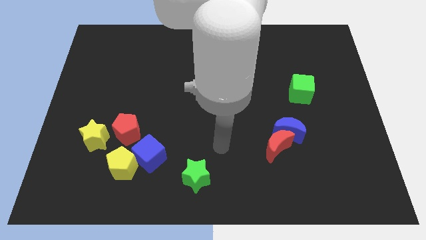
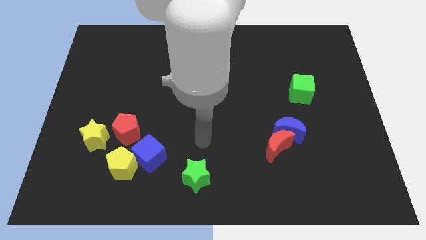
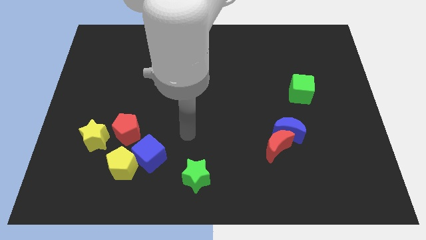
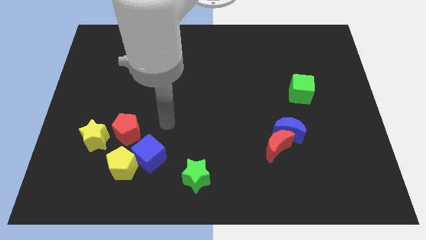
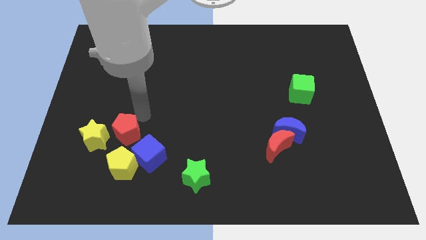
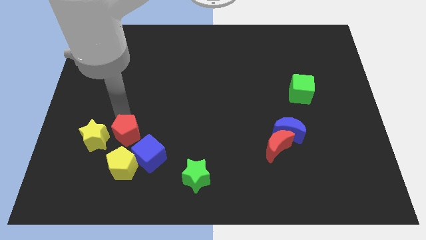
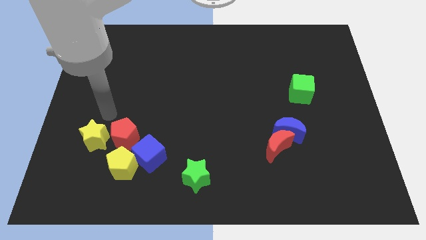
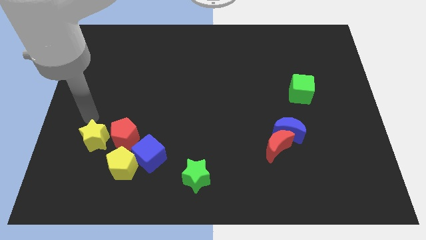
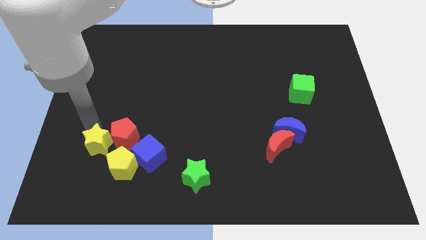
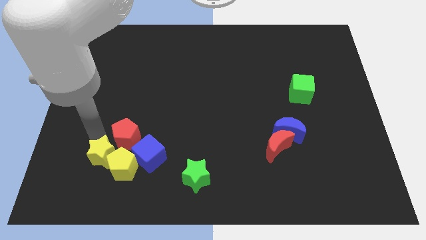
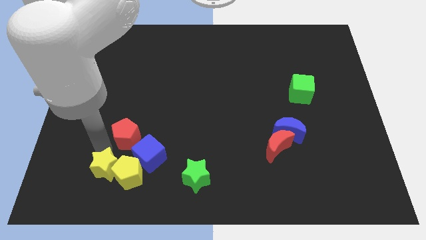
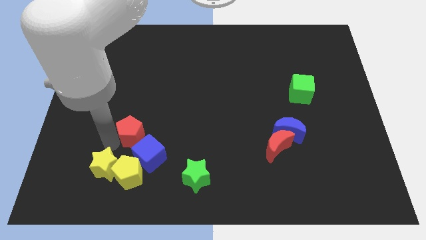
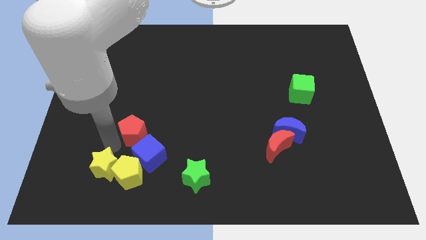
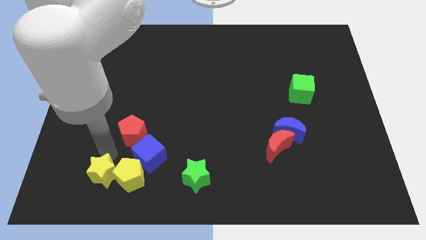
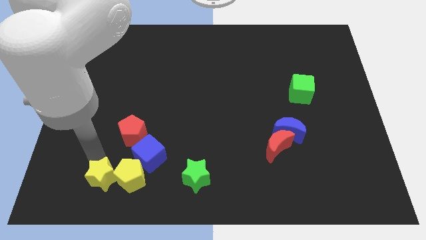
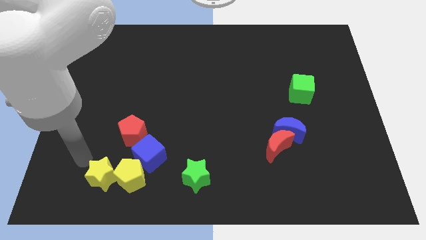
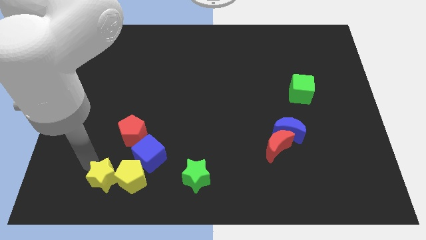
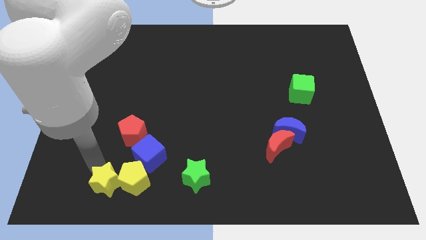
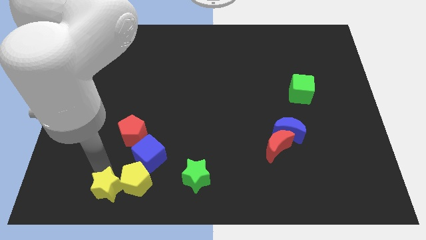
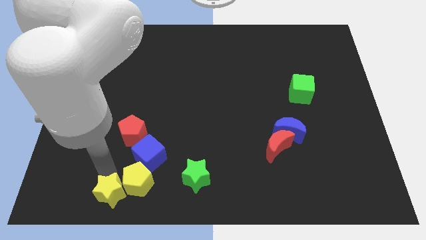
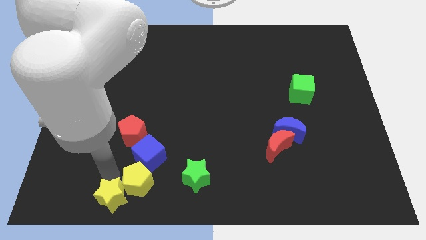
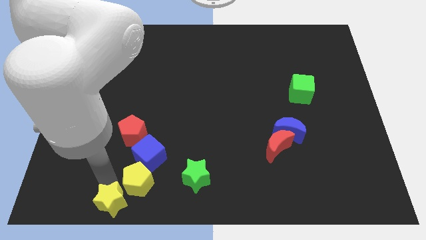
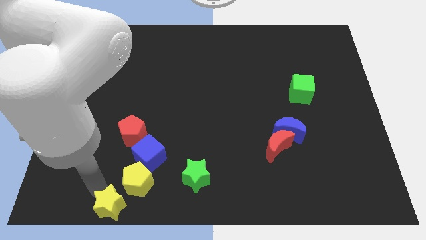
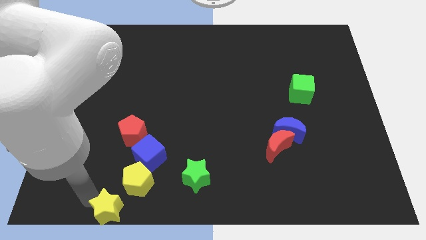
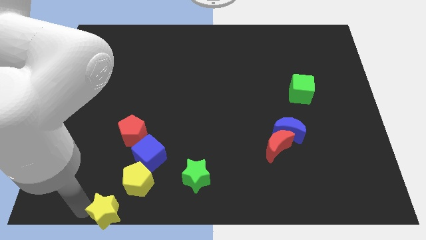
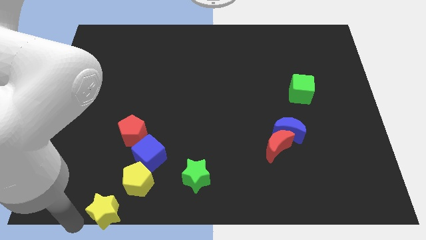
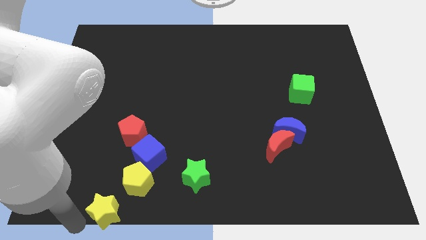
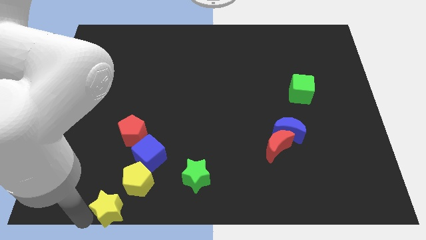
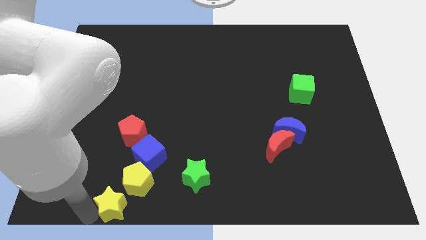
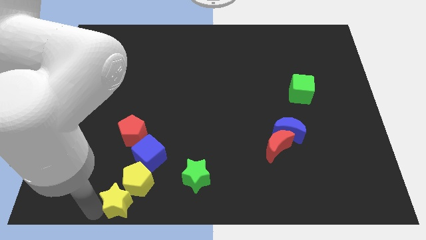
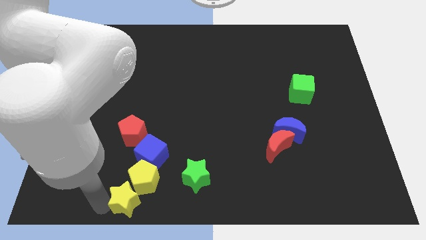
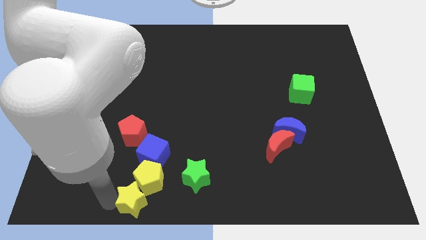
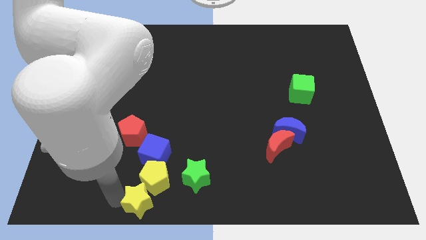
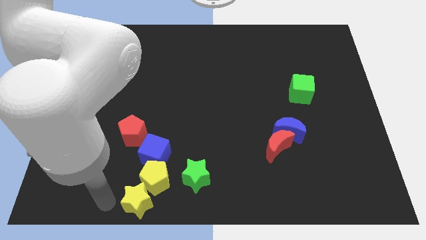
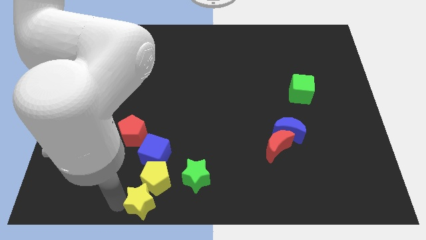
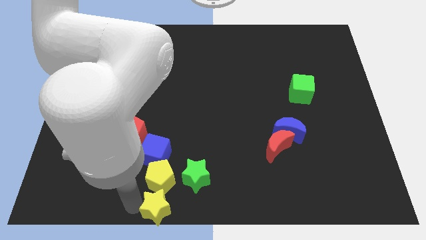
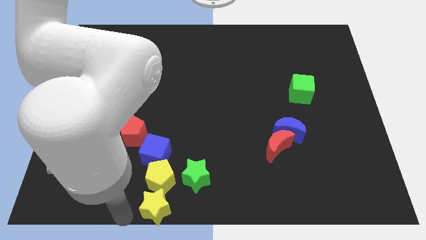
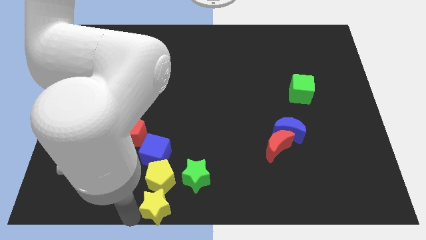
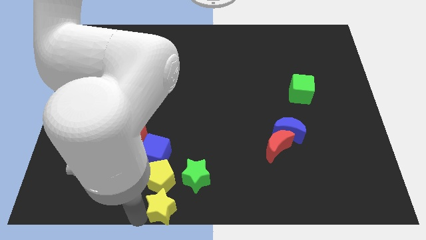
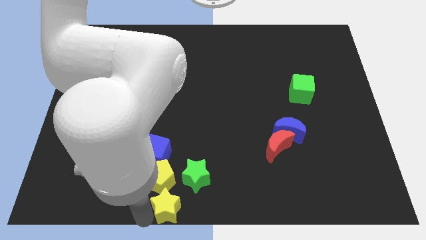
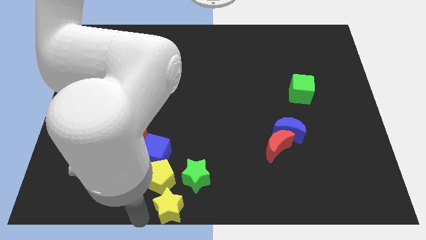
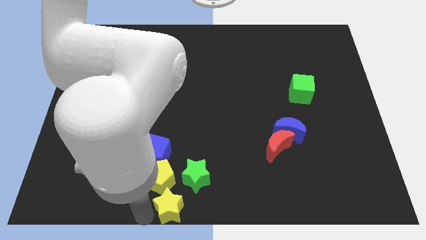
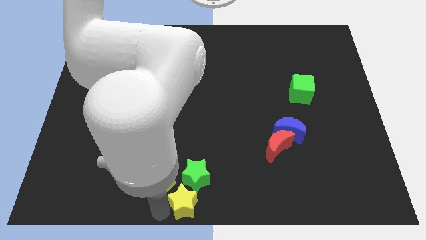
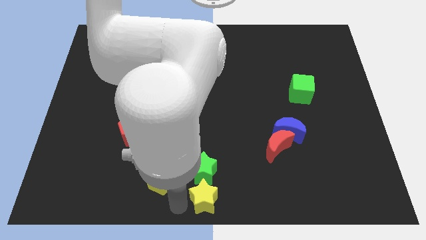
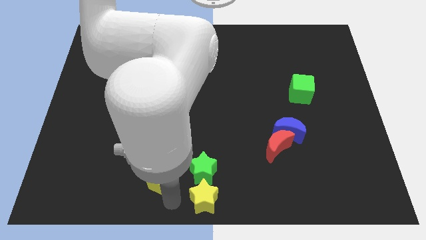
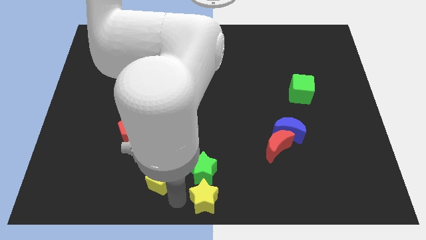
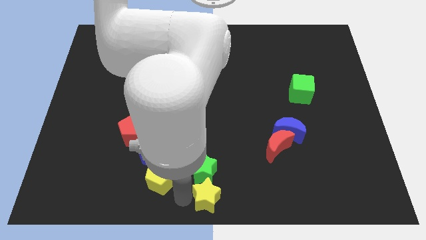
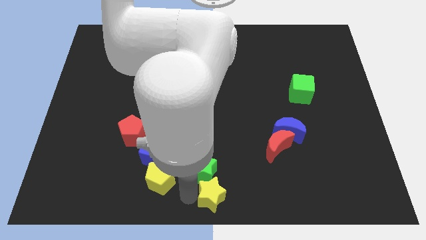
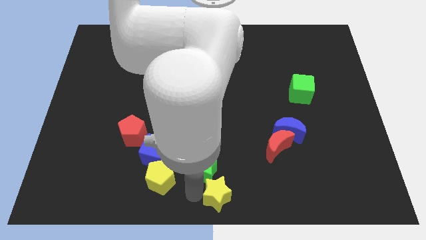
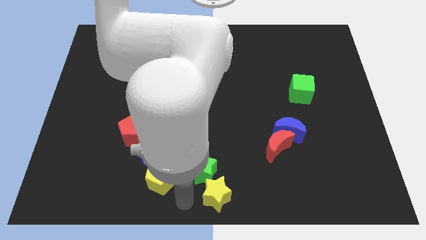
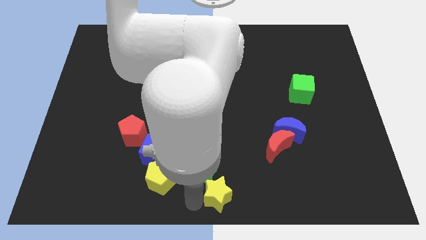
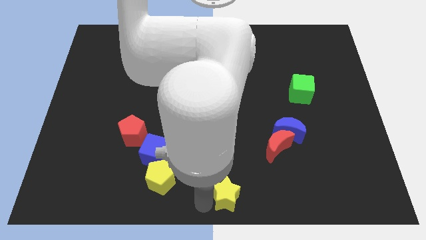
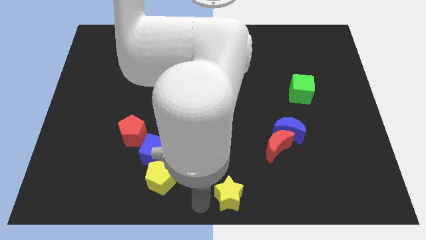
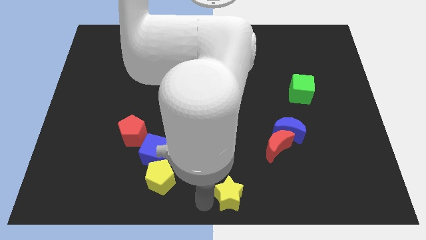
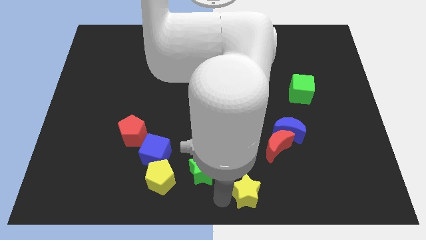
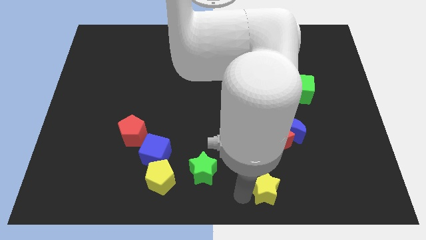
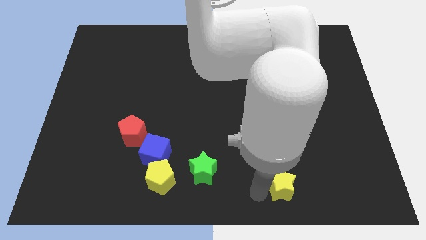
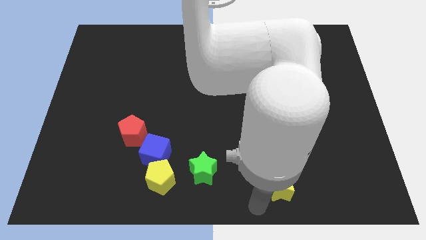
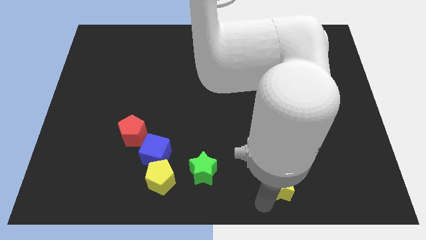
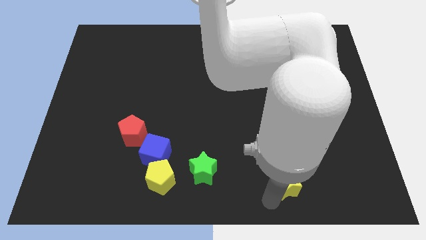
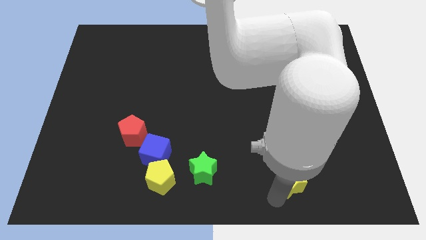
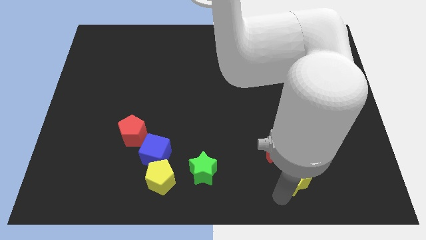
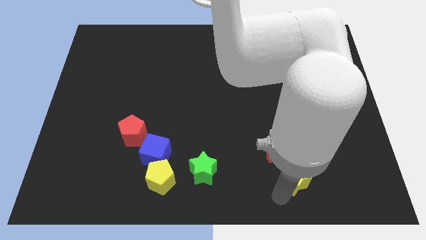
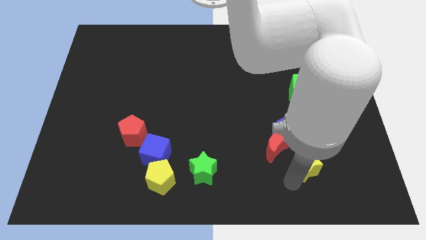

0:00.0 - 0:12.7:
push the yellow star to the bottom right of the blue moon
